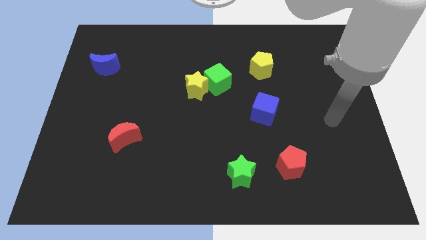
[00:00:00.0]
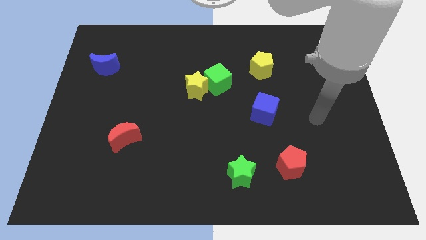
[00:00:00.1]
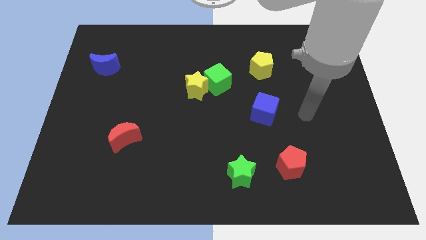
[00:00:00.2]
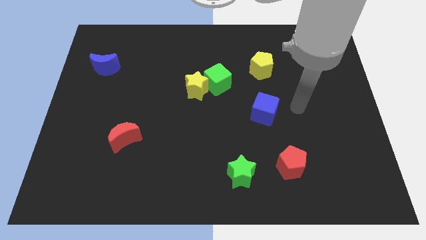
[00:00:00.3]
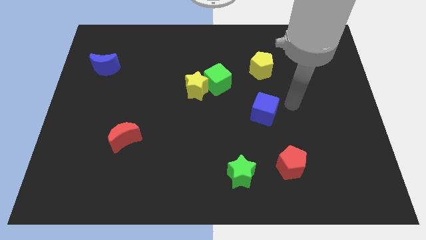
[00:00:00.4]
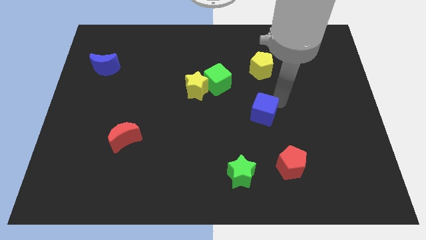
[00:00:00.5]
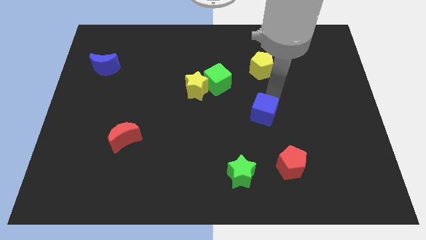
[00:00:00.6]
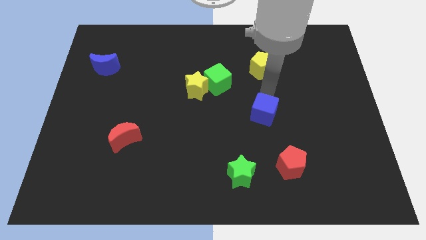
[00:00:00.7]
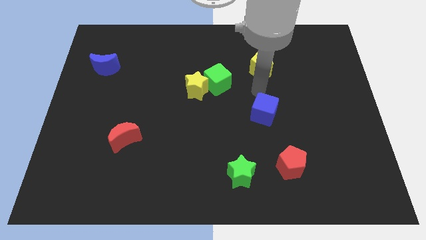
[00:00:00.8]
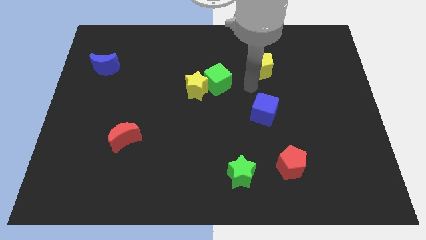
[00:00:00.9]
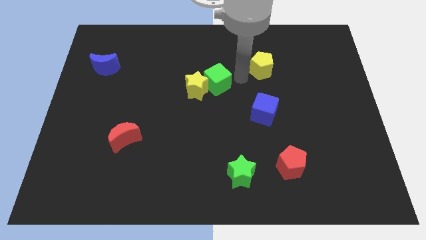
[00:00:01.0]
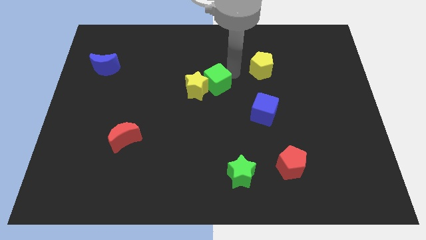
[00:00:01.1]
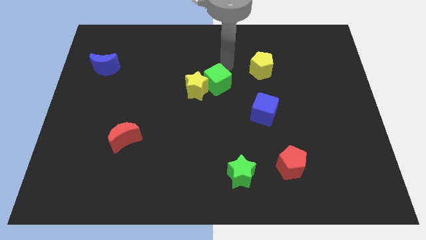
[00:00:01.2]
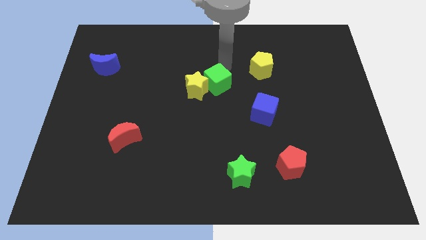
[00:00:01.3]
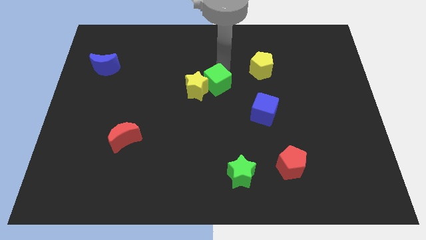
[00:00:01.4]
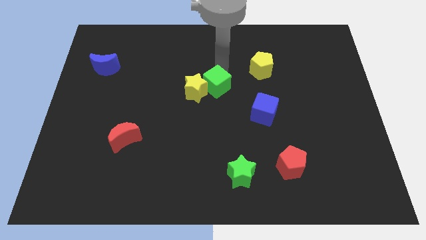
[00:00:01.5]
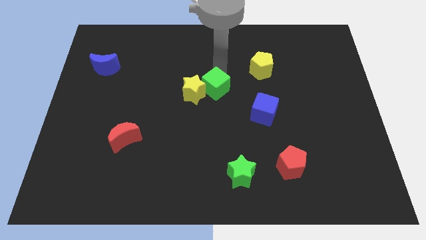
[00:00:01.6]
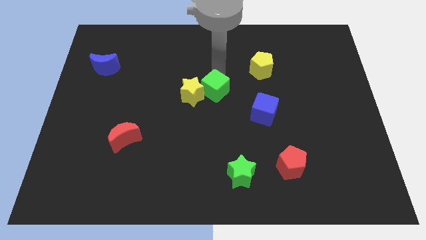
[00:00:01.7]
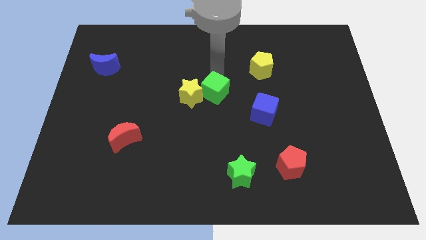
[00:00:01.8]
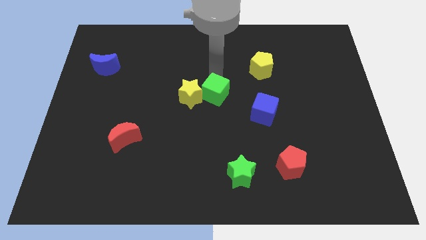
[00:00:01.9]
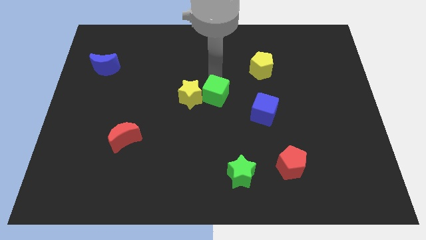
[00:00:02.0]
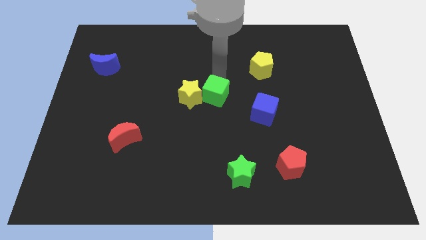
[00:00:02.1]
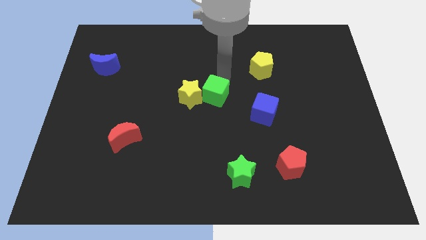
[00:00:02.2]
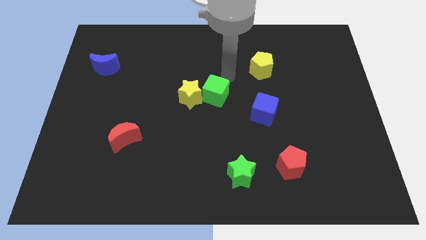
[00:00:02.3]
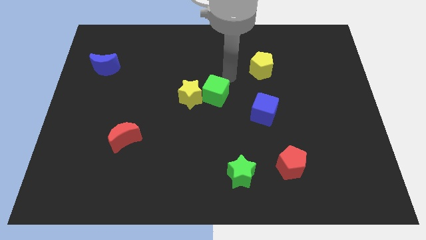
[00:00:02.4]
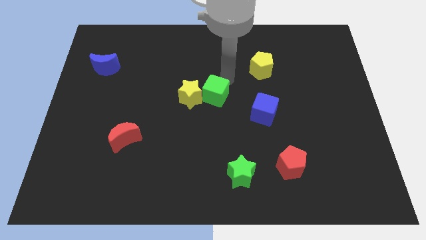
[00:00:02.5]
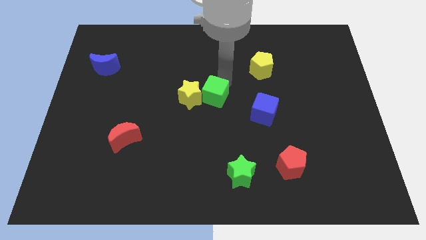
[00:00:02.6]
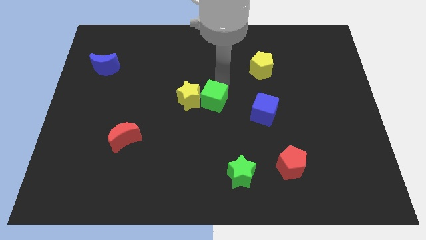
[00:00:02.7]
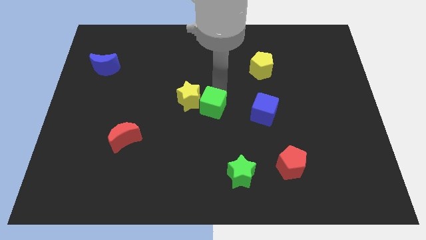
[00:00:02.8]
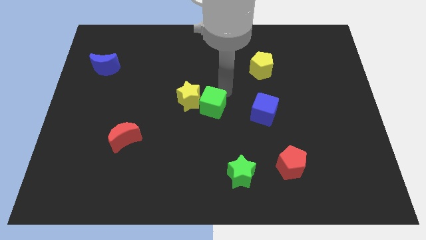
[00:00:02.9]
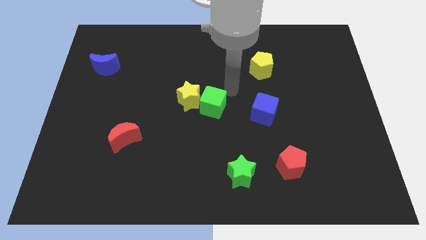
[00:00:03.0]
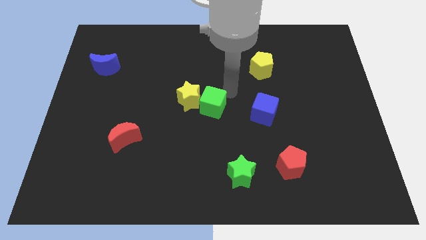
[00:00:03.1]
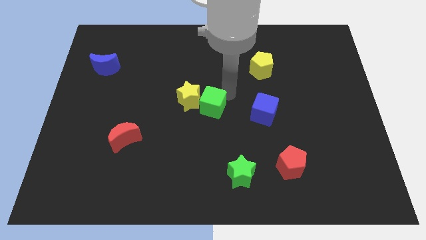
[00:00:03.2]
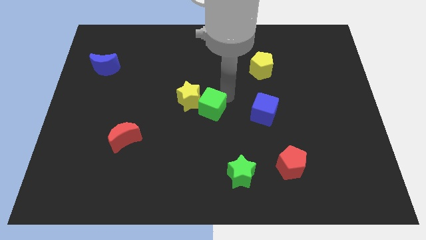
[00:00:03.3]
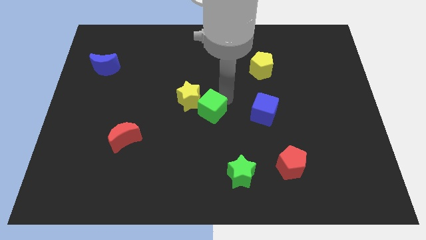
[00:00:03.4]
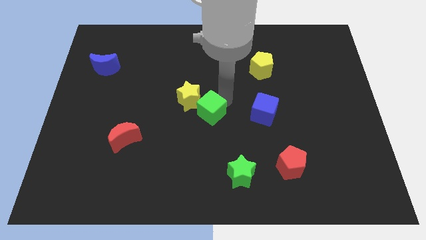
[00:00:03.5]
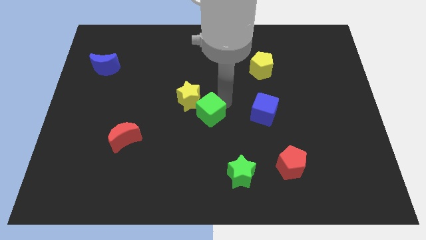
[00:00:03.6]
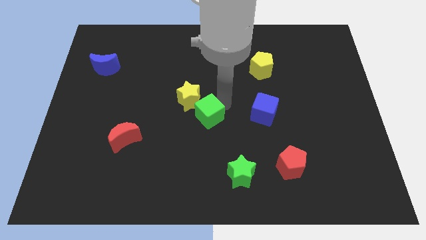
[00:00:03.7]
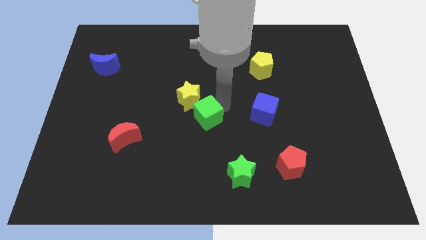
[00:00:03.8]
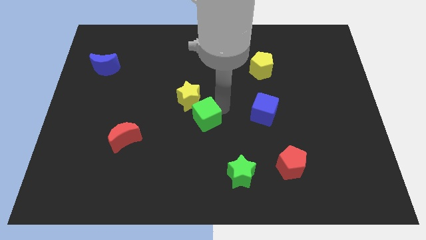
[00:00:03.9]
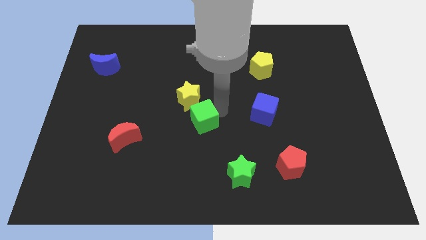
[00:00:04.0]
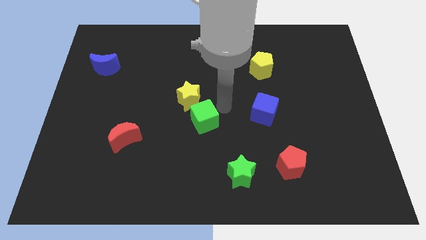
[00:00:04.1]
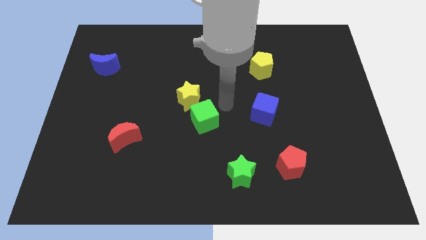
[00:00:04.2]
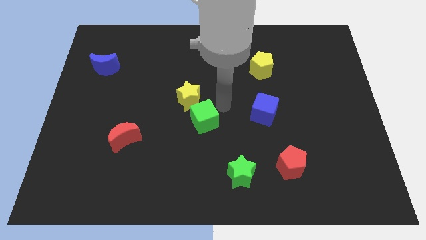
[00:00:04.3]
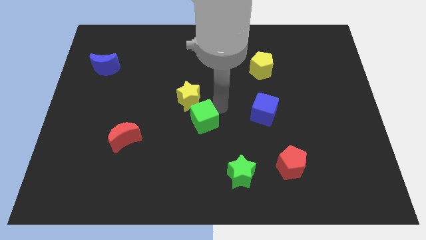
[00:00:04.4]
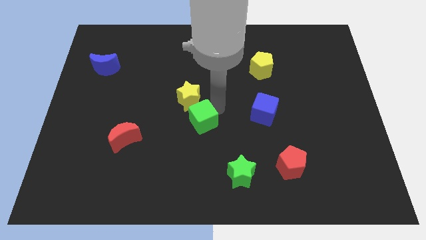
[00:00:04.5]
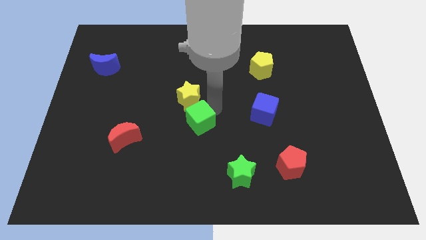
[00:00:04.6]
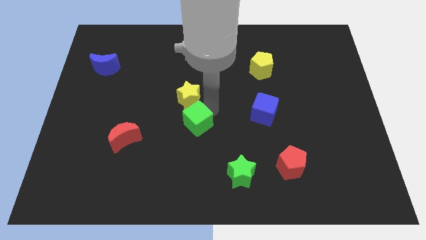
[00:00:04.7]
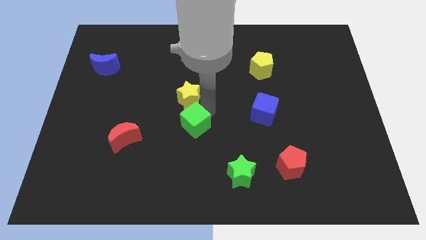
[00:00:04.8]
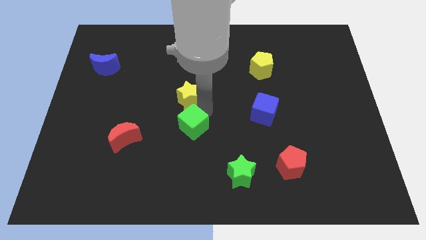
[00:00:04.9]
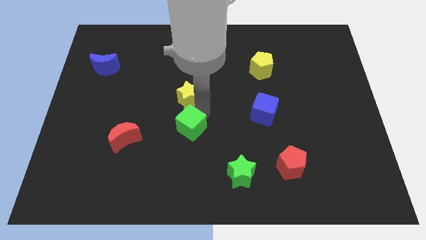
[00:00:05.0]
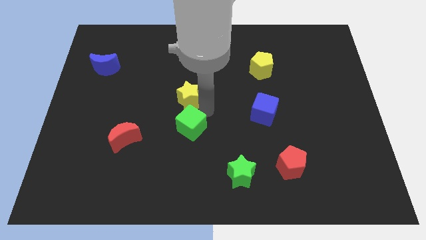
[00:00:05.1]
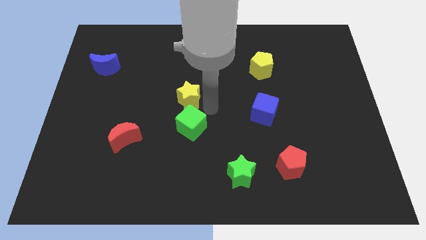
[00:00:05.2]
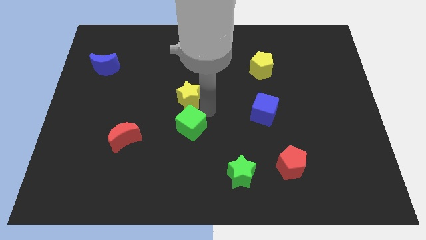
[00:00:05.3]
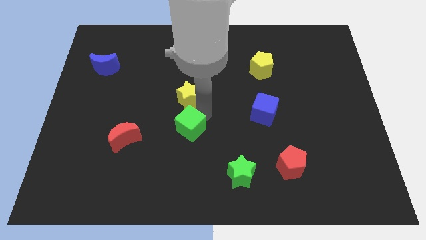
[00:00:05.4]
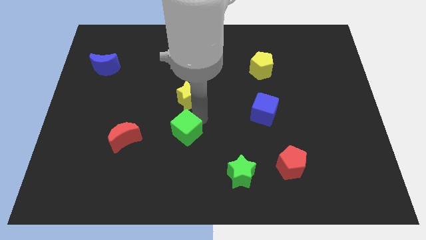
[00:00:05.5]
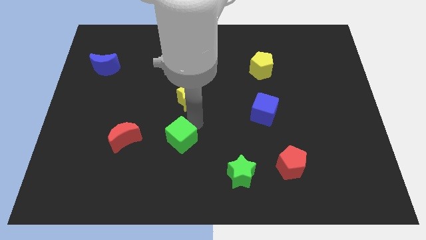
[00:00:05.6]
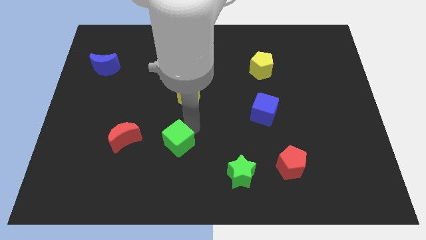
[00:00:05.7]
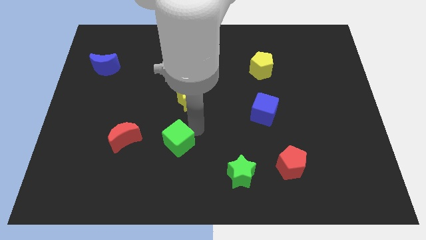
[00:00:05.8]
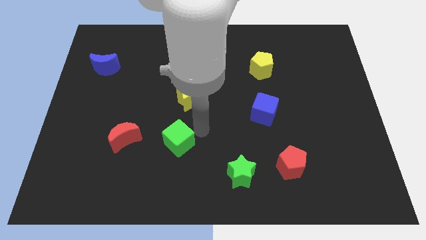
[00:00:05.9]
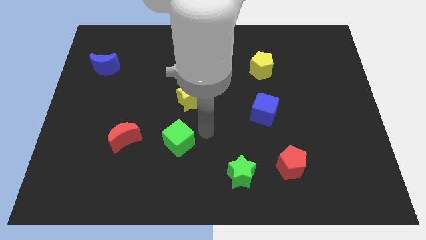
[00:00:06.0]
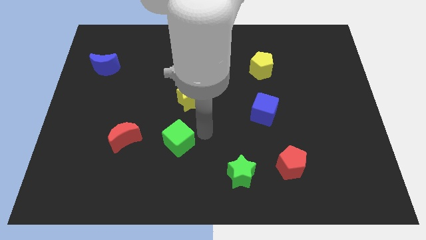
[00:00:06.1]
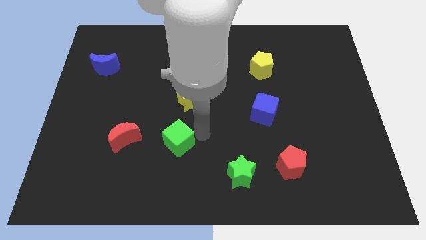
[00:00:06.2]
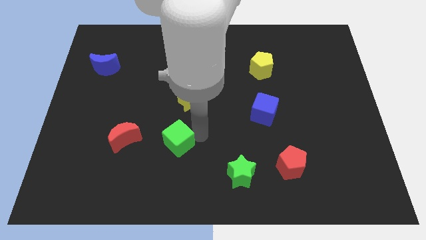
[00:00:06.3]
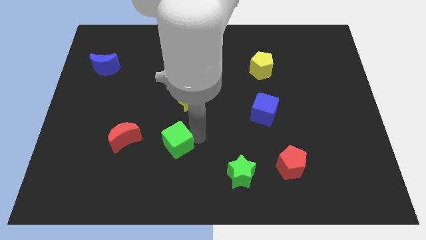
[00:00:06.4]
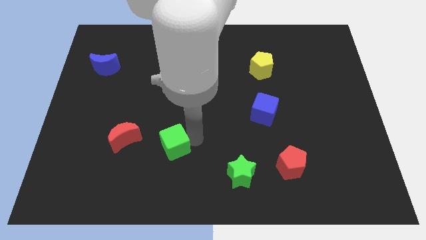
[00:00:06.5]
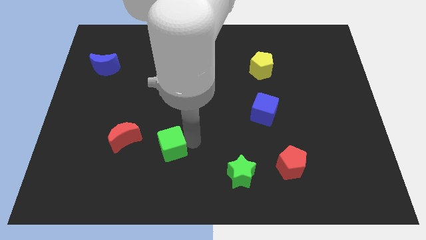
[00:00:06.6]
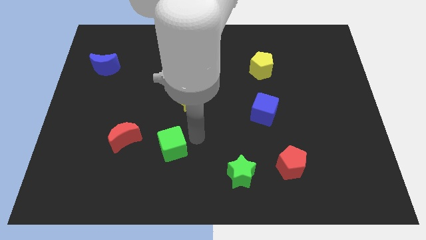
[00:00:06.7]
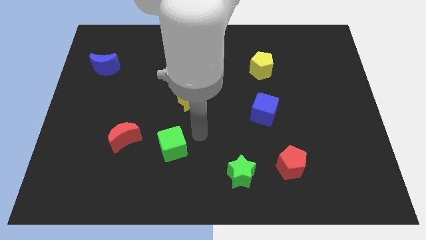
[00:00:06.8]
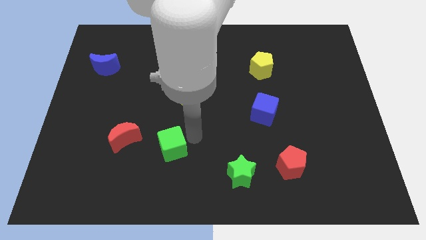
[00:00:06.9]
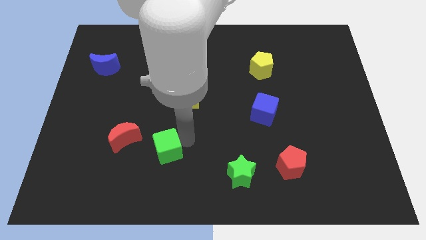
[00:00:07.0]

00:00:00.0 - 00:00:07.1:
push the green cube to the bottom right side of the red moon

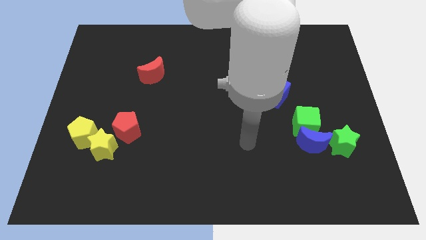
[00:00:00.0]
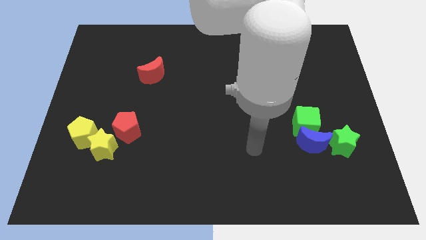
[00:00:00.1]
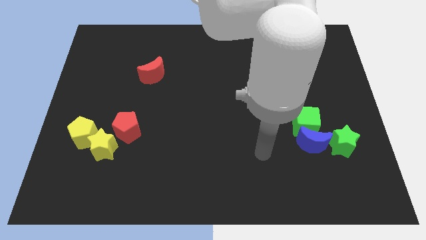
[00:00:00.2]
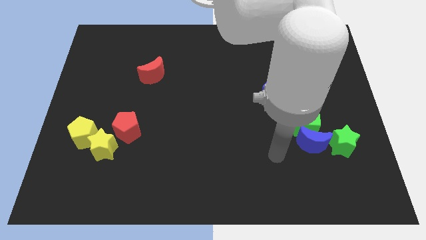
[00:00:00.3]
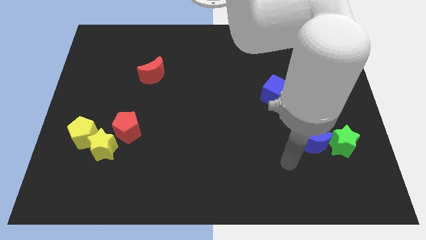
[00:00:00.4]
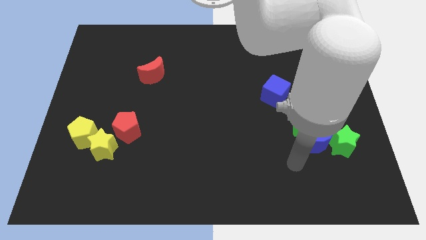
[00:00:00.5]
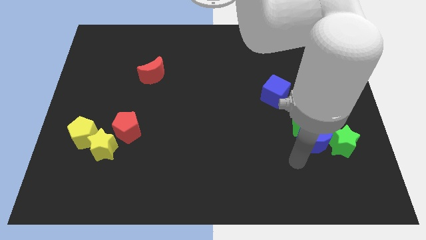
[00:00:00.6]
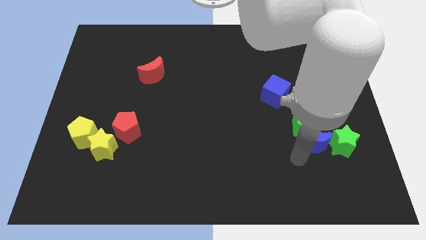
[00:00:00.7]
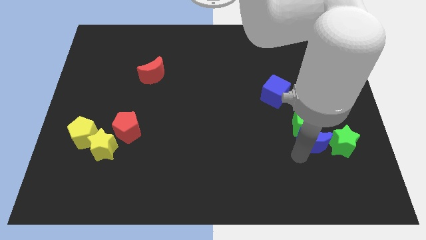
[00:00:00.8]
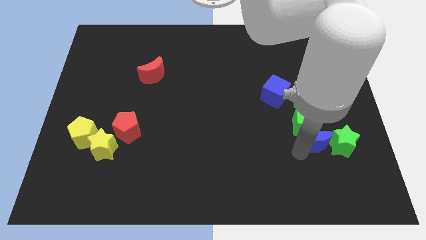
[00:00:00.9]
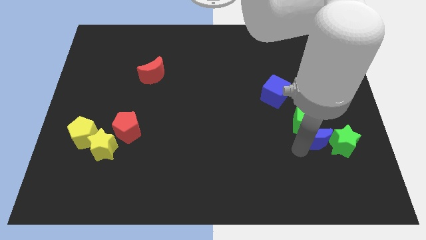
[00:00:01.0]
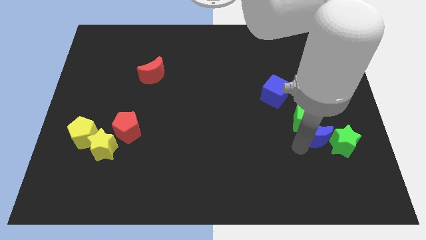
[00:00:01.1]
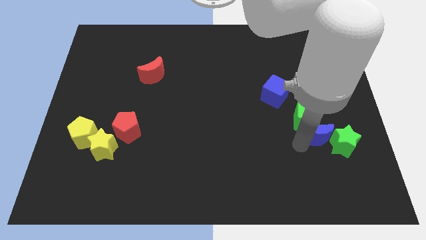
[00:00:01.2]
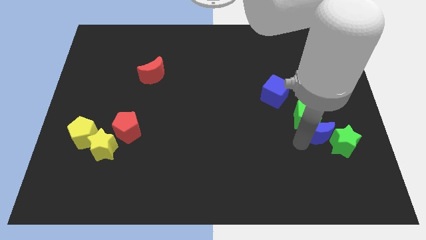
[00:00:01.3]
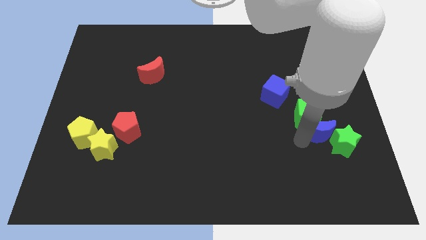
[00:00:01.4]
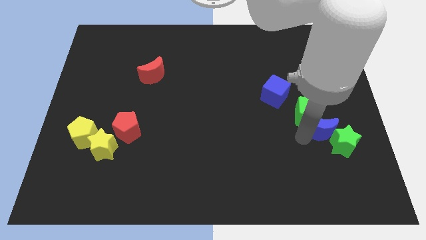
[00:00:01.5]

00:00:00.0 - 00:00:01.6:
move the blue moon to the top of the green star
